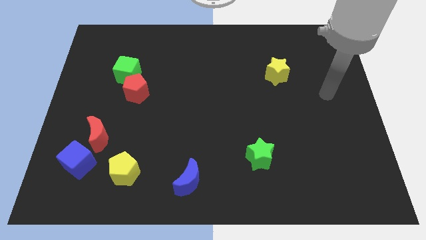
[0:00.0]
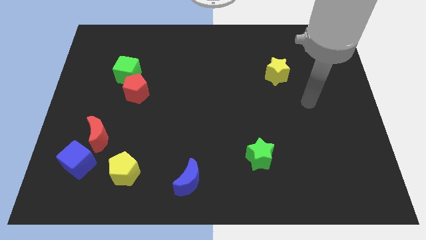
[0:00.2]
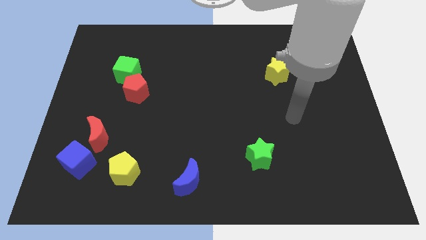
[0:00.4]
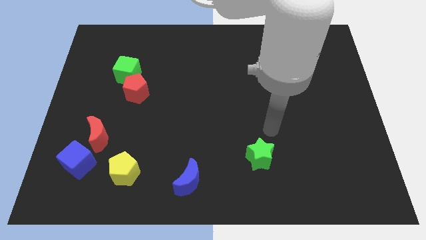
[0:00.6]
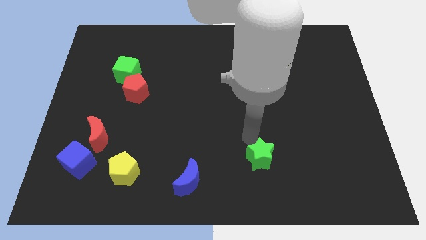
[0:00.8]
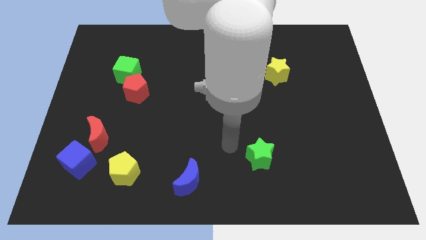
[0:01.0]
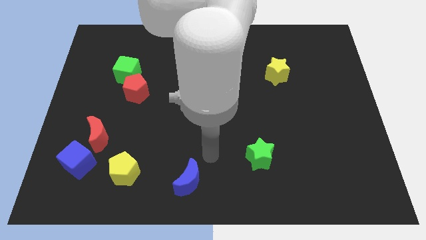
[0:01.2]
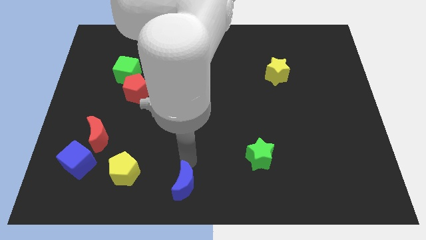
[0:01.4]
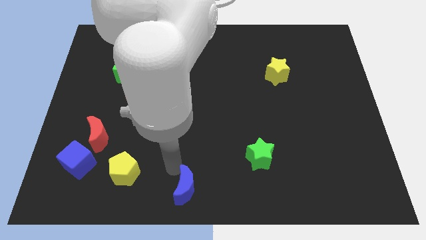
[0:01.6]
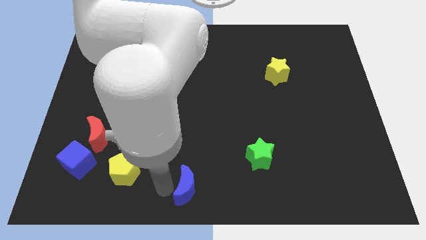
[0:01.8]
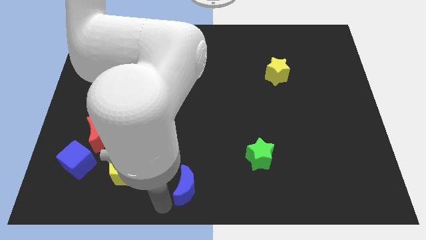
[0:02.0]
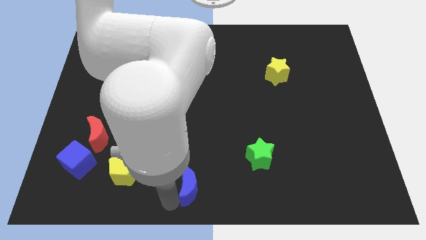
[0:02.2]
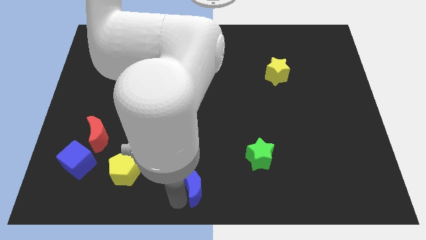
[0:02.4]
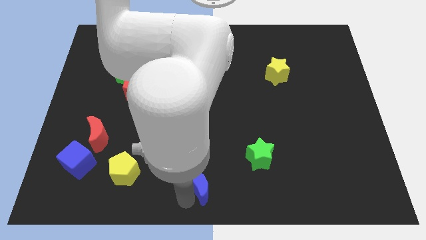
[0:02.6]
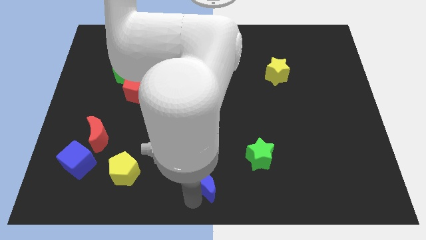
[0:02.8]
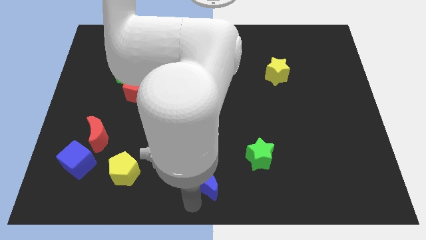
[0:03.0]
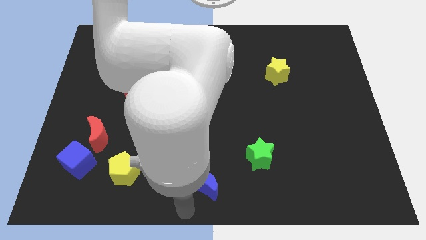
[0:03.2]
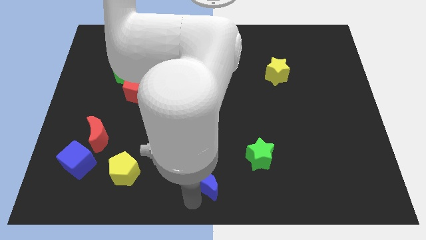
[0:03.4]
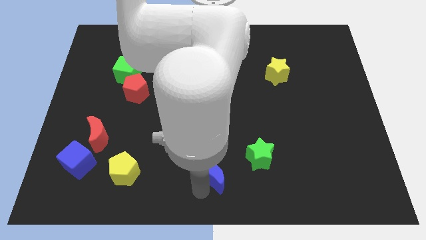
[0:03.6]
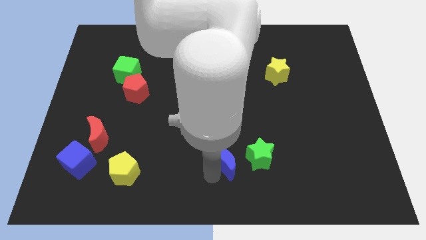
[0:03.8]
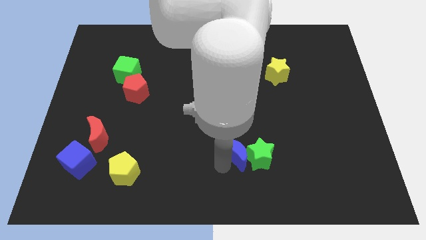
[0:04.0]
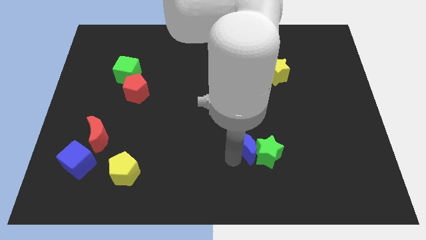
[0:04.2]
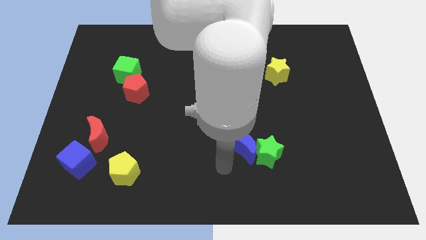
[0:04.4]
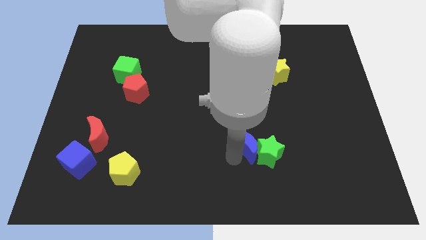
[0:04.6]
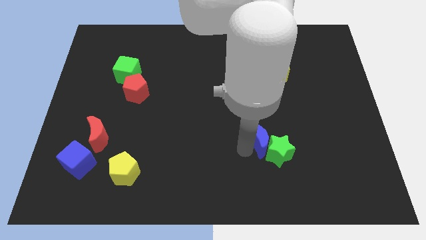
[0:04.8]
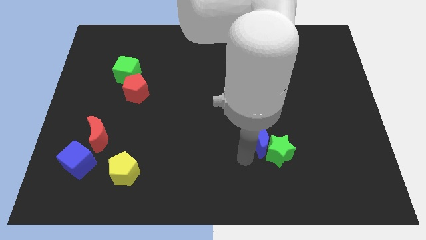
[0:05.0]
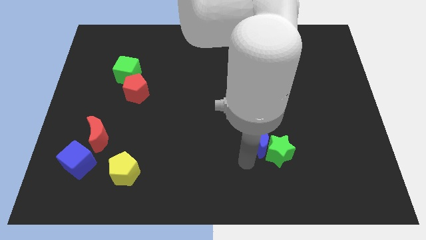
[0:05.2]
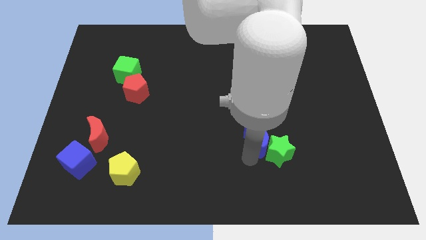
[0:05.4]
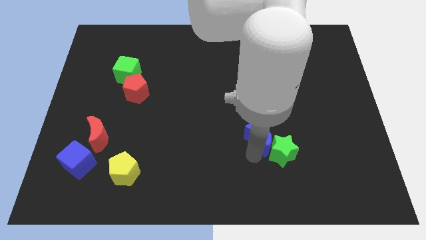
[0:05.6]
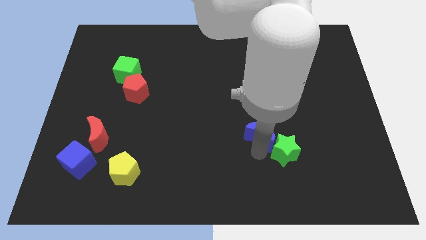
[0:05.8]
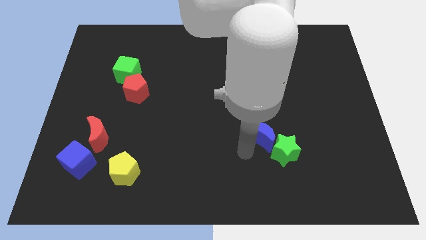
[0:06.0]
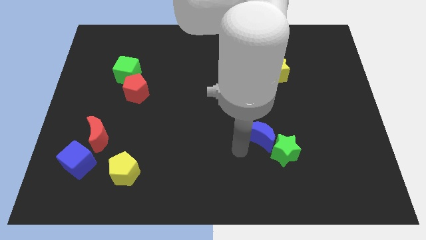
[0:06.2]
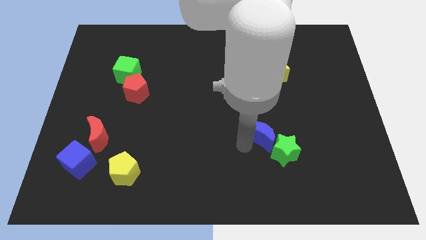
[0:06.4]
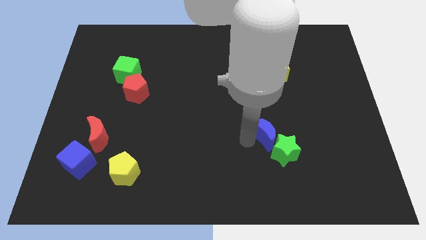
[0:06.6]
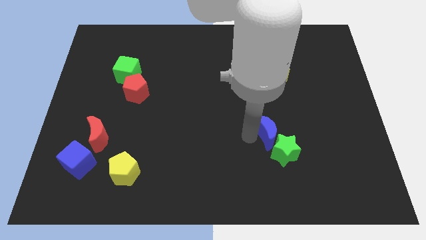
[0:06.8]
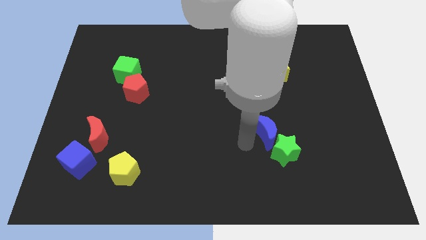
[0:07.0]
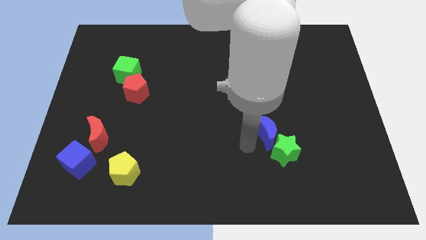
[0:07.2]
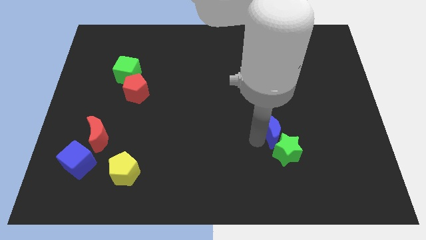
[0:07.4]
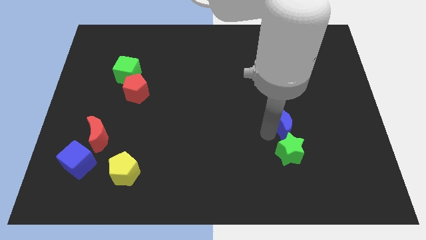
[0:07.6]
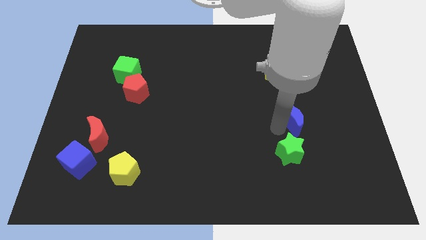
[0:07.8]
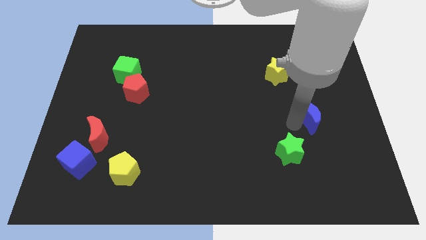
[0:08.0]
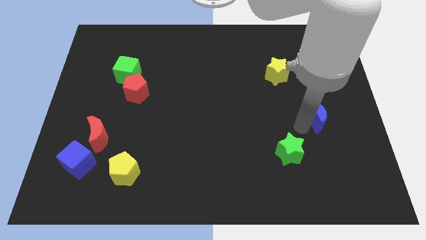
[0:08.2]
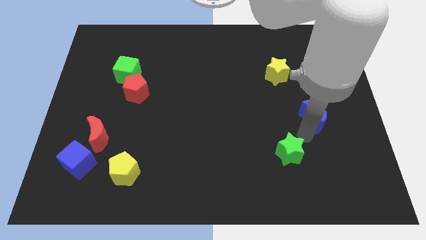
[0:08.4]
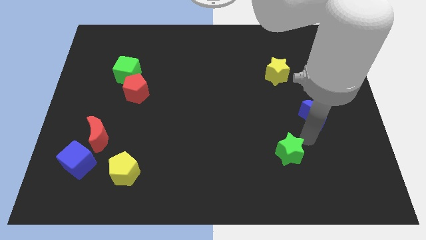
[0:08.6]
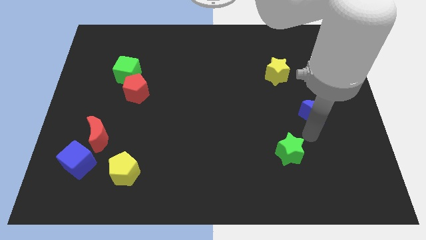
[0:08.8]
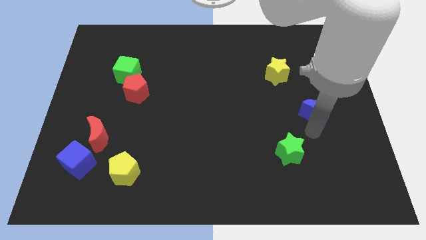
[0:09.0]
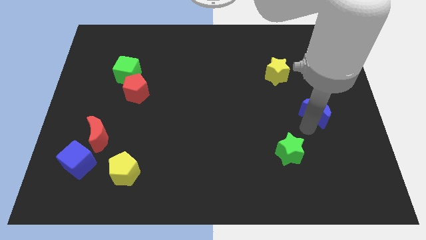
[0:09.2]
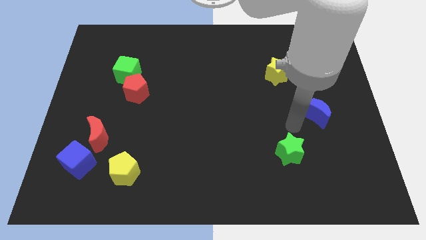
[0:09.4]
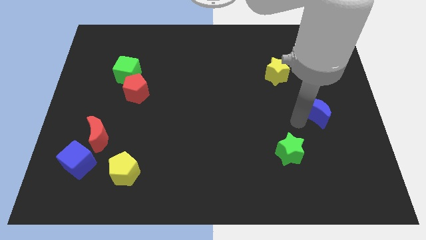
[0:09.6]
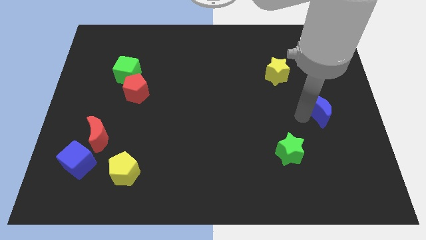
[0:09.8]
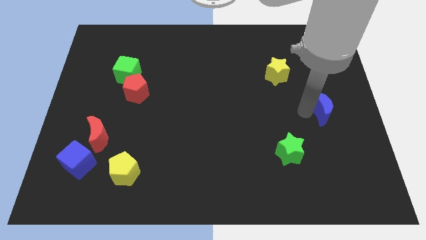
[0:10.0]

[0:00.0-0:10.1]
slide the blue moon to the right side

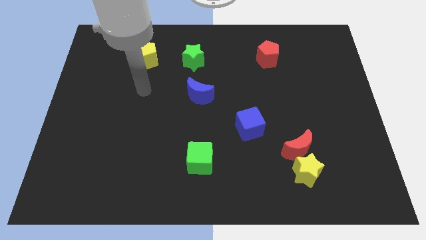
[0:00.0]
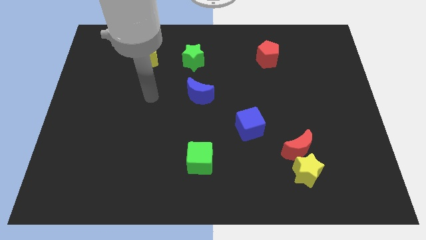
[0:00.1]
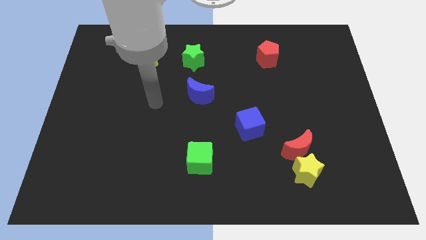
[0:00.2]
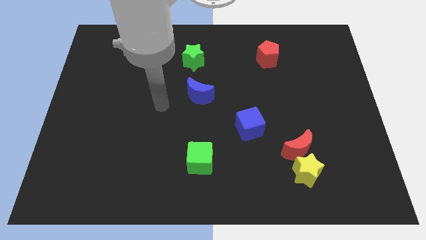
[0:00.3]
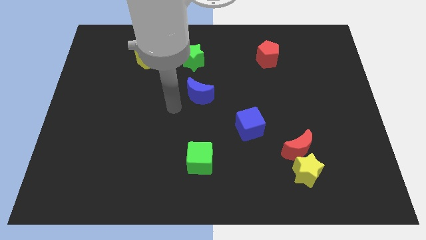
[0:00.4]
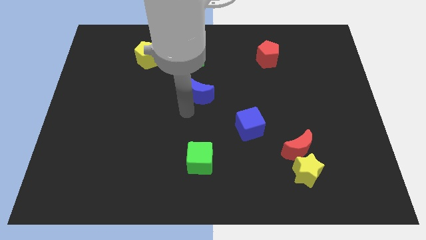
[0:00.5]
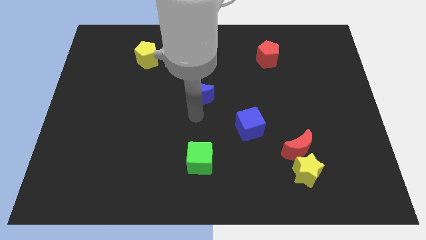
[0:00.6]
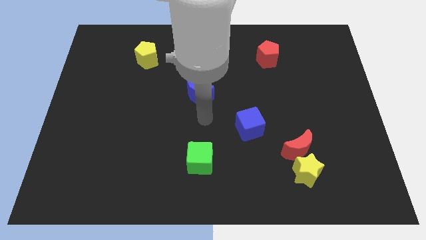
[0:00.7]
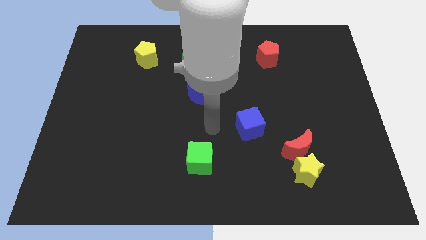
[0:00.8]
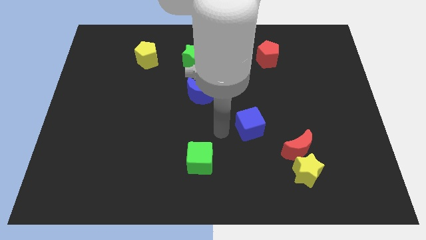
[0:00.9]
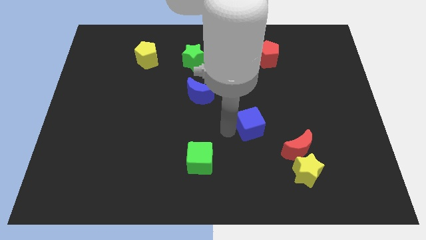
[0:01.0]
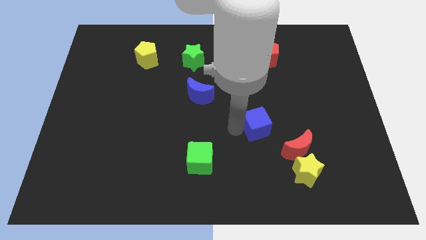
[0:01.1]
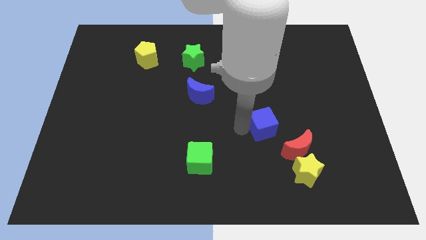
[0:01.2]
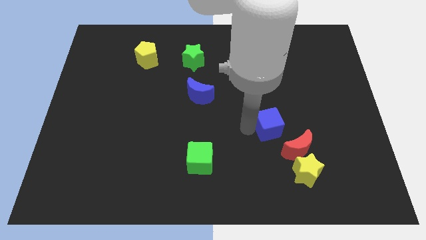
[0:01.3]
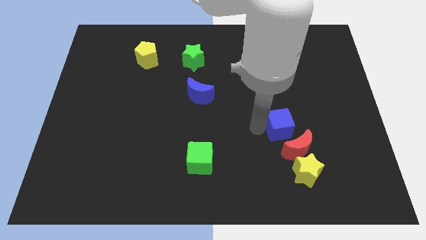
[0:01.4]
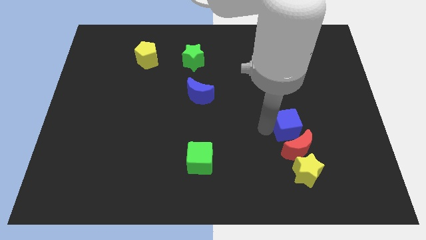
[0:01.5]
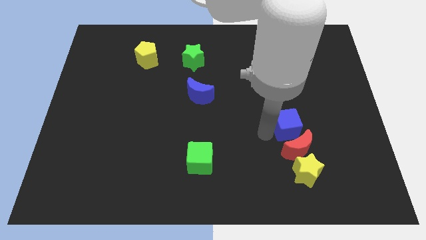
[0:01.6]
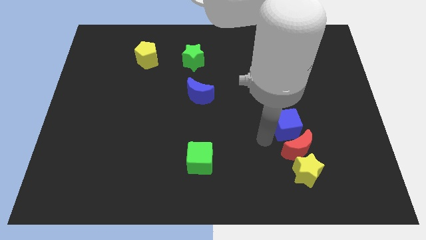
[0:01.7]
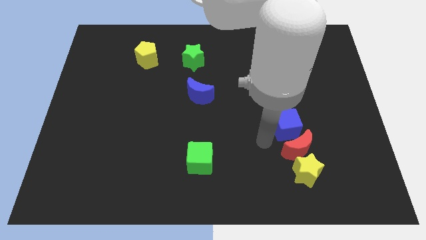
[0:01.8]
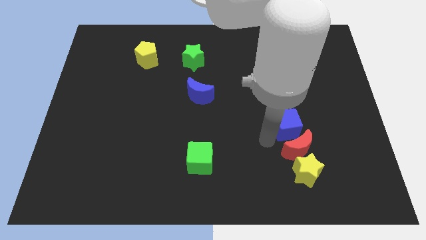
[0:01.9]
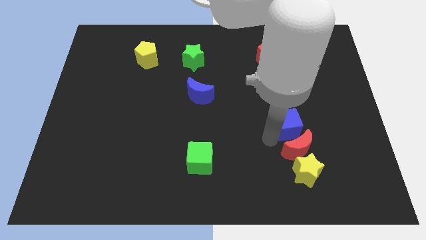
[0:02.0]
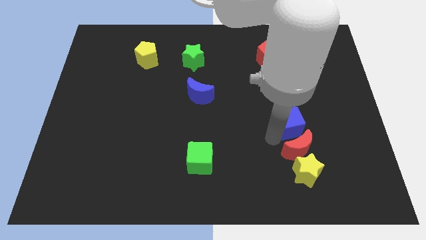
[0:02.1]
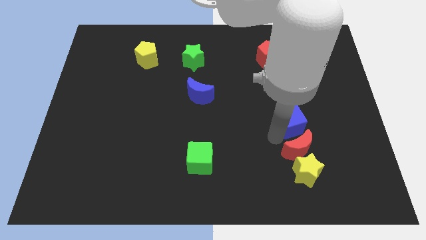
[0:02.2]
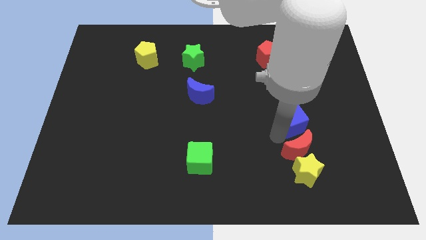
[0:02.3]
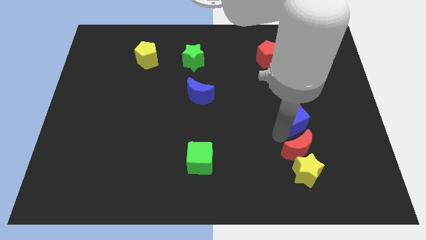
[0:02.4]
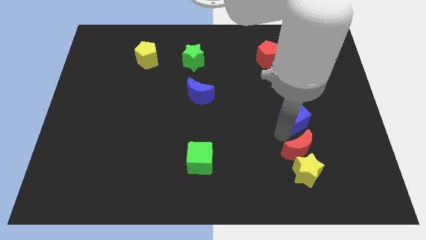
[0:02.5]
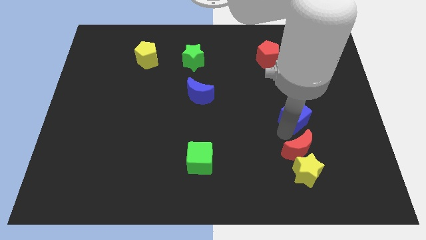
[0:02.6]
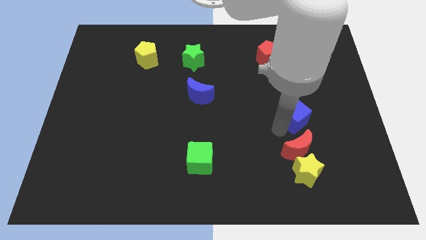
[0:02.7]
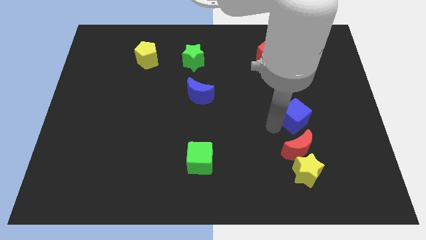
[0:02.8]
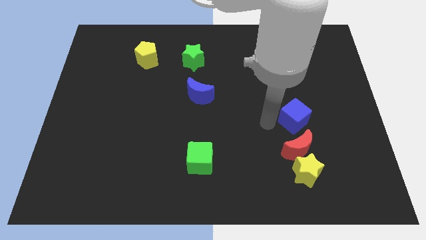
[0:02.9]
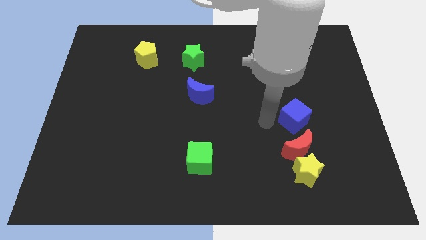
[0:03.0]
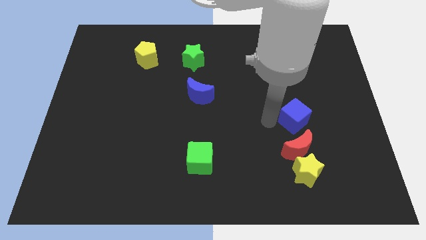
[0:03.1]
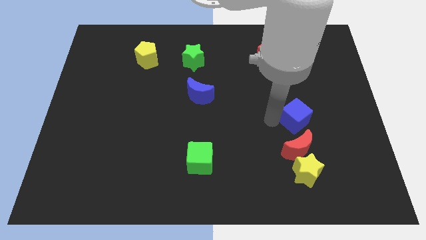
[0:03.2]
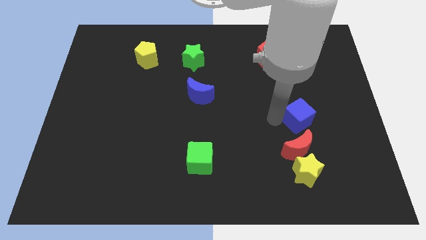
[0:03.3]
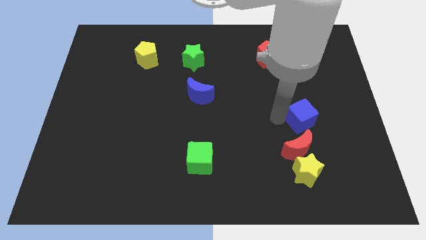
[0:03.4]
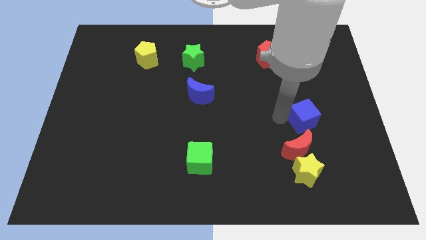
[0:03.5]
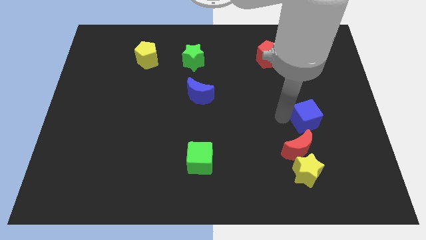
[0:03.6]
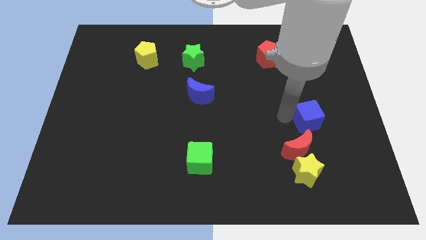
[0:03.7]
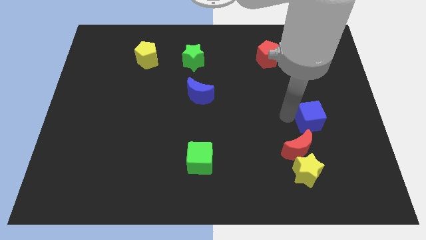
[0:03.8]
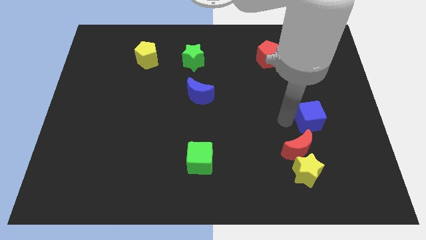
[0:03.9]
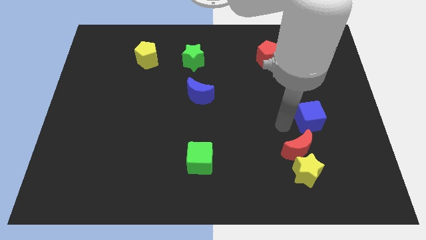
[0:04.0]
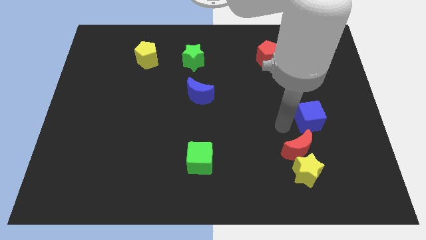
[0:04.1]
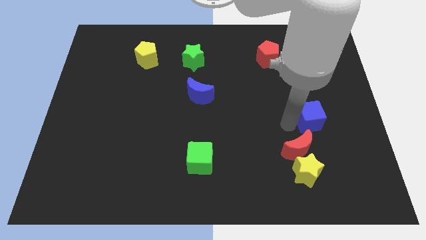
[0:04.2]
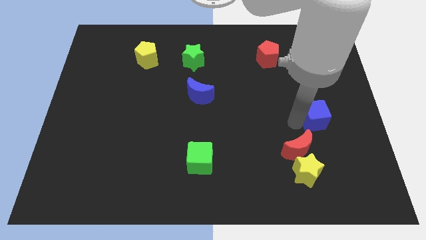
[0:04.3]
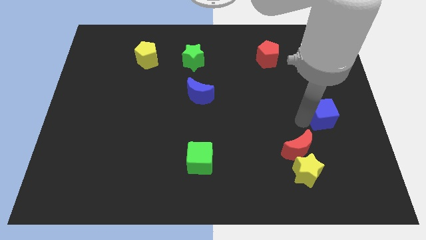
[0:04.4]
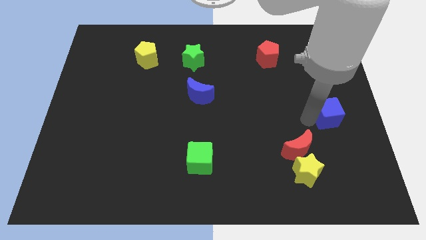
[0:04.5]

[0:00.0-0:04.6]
push the blue cube to the right side of the board
